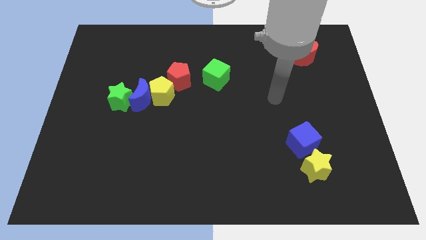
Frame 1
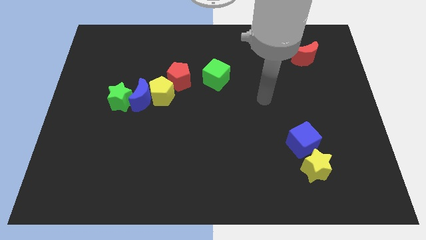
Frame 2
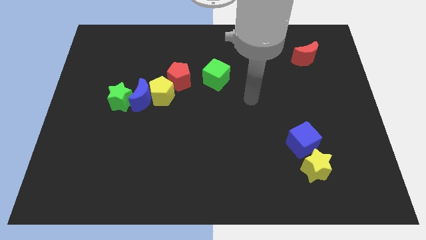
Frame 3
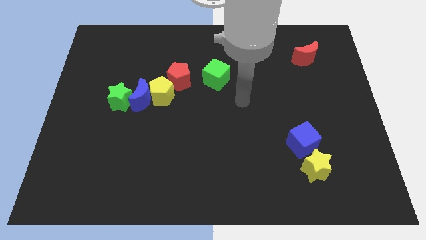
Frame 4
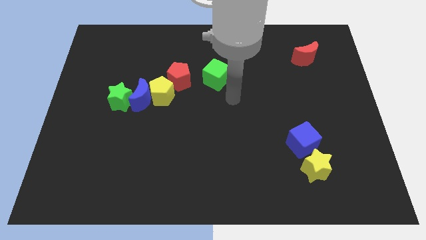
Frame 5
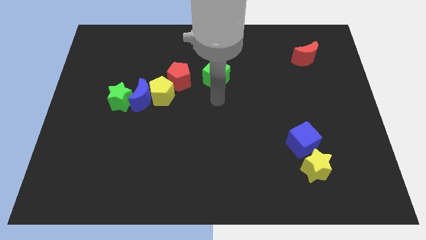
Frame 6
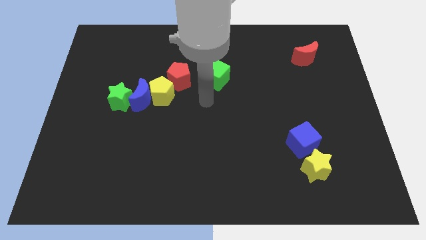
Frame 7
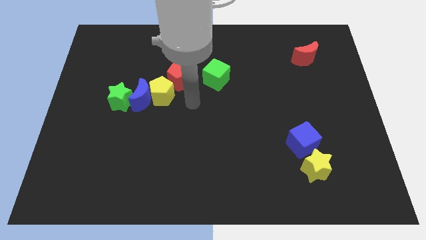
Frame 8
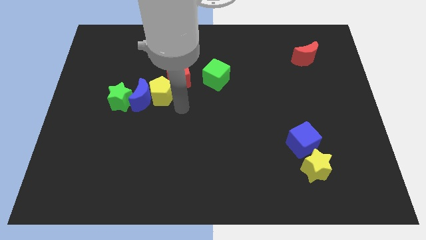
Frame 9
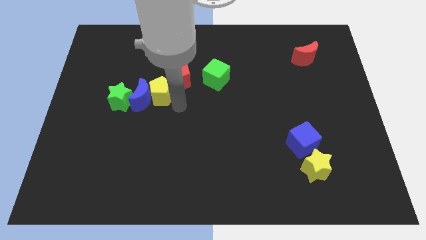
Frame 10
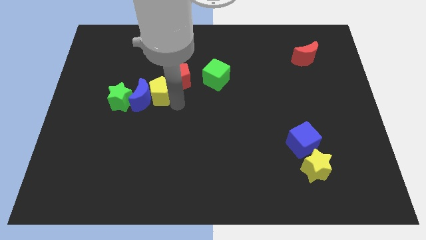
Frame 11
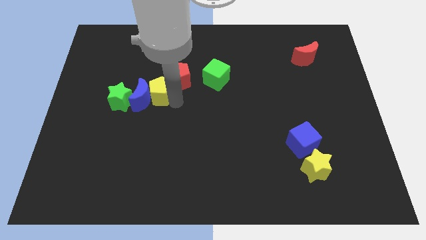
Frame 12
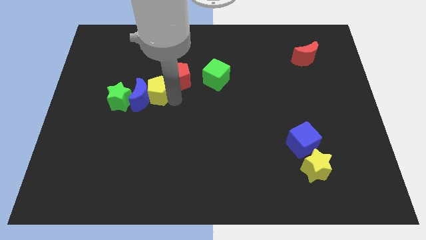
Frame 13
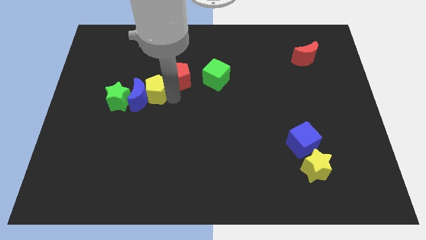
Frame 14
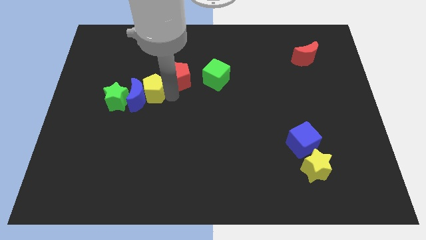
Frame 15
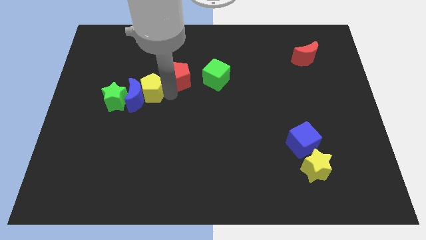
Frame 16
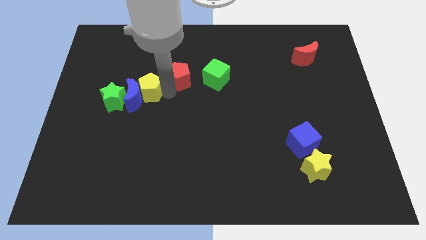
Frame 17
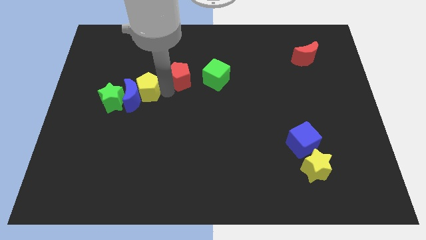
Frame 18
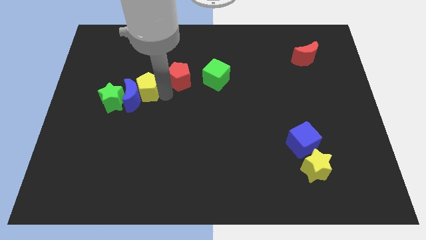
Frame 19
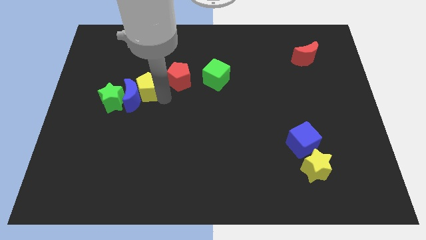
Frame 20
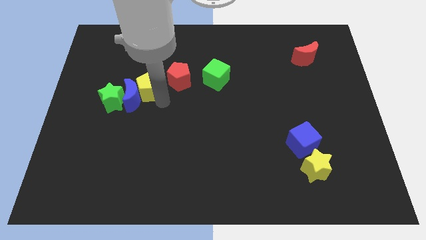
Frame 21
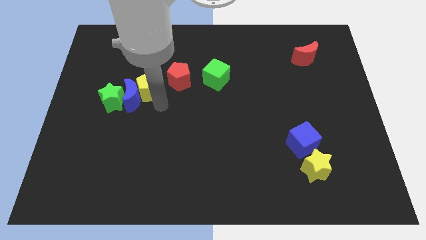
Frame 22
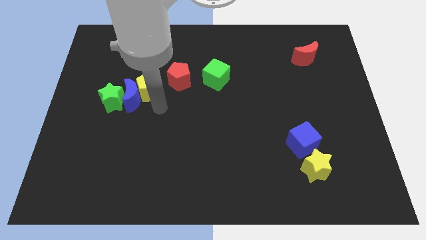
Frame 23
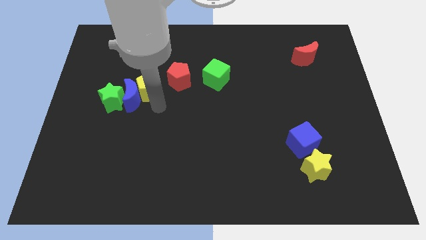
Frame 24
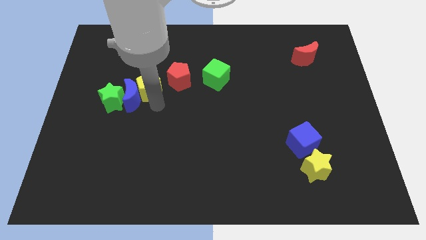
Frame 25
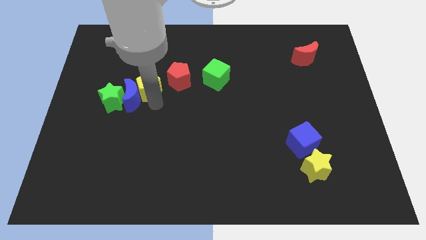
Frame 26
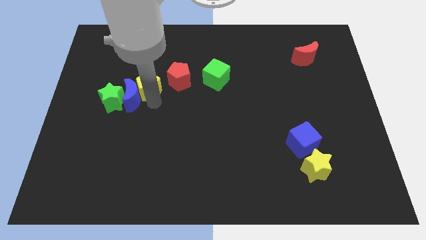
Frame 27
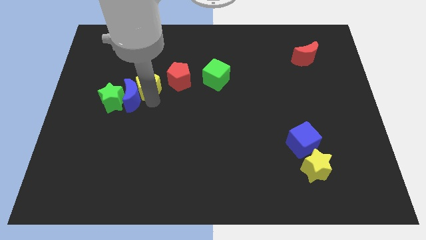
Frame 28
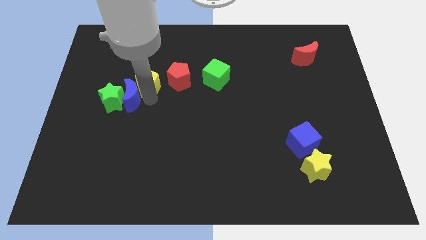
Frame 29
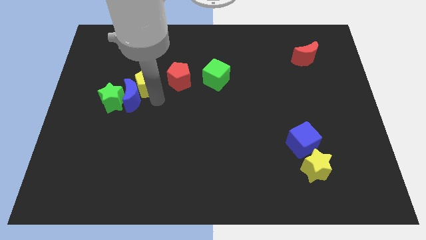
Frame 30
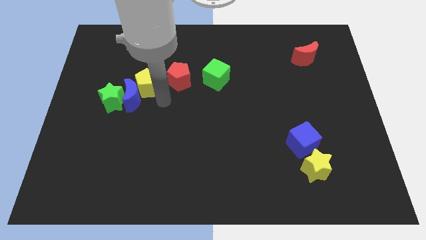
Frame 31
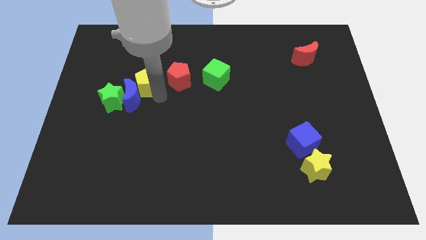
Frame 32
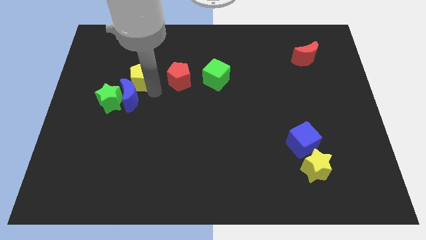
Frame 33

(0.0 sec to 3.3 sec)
slightly move the yellow pentagon upwards and then to the left

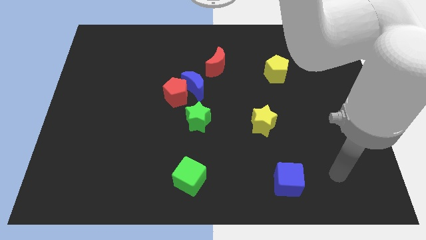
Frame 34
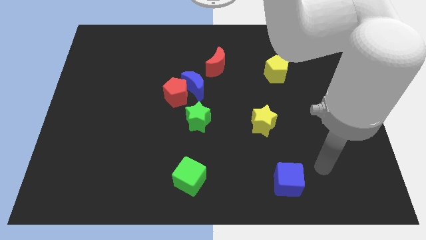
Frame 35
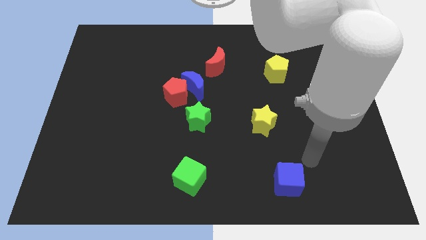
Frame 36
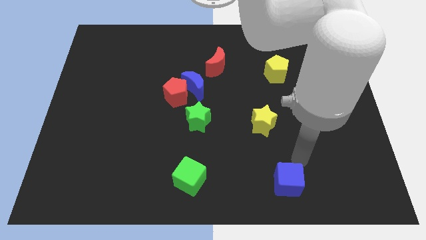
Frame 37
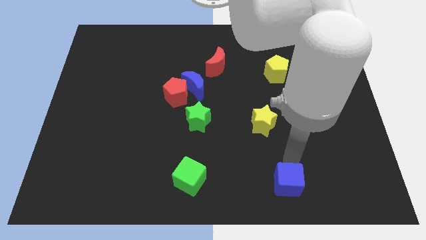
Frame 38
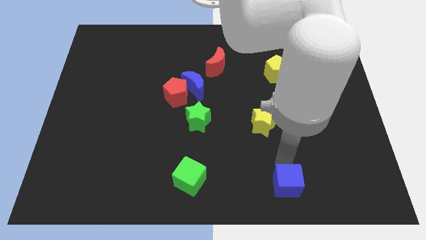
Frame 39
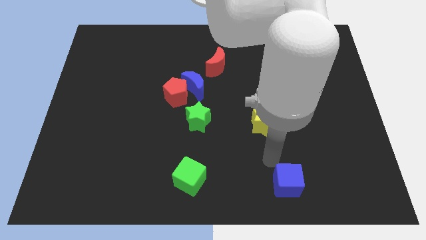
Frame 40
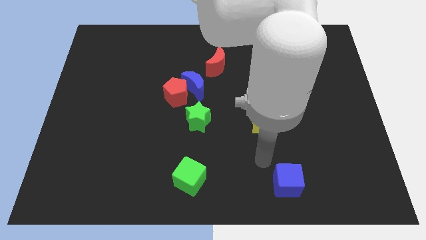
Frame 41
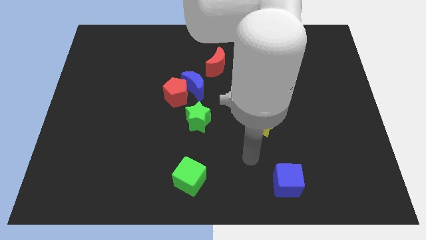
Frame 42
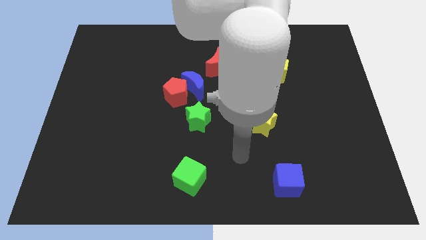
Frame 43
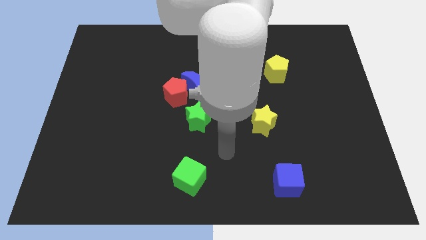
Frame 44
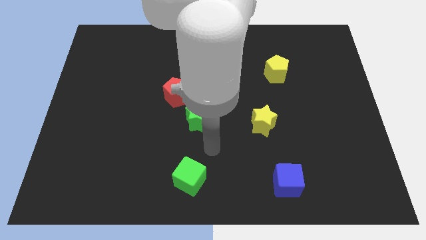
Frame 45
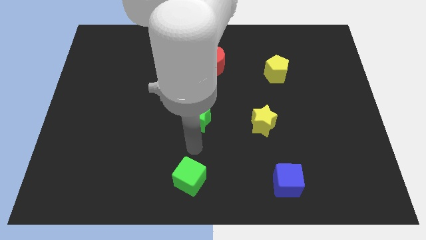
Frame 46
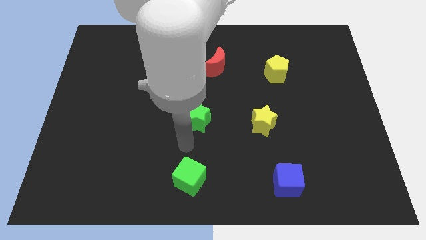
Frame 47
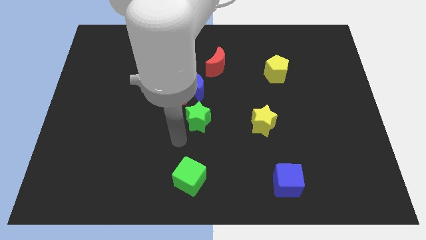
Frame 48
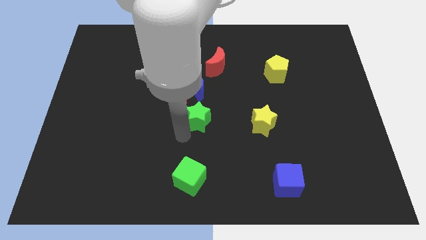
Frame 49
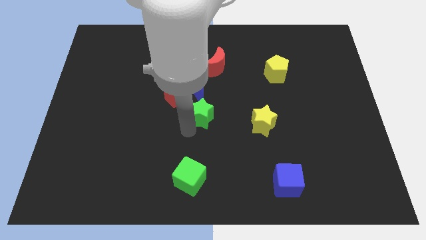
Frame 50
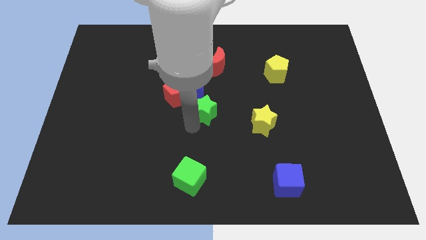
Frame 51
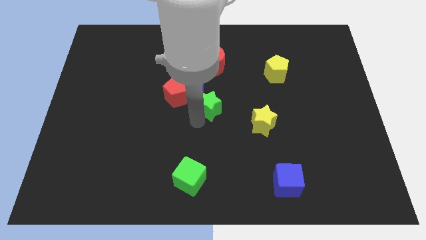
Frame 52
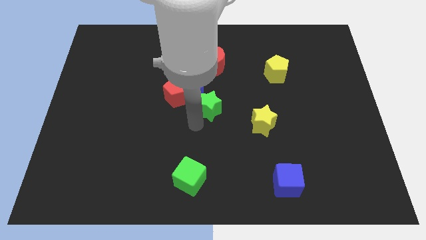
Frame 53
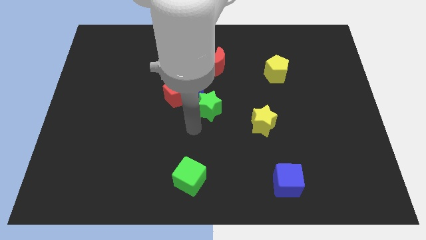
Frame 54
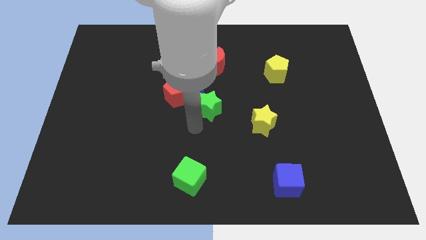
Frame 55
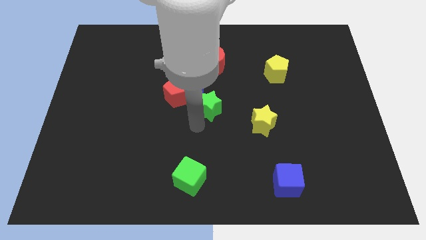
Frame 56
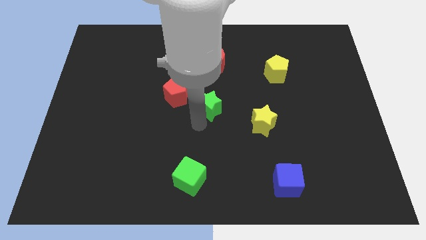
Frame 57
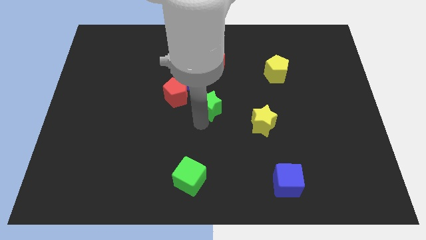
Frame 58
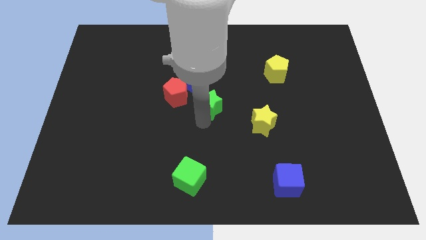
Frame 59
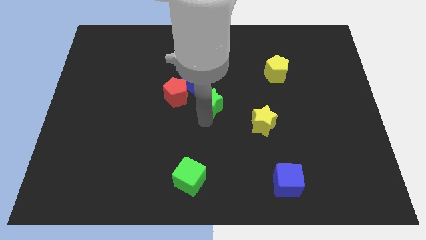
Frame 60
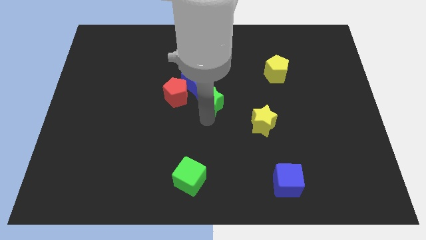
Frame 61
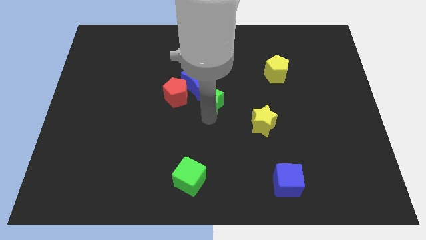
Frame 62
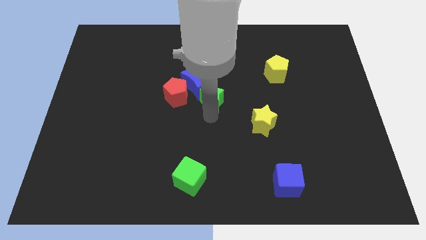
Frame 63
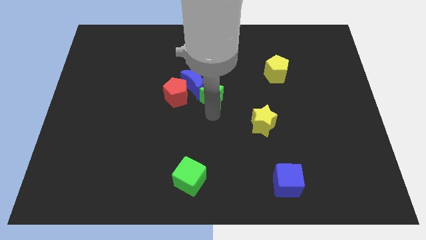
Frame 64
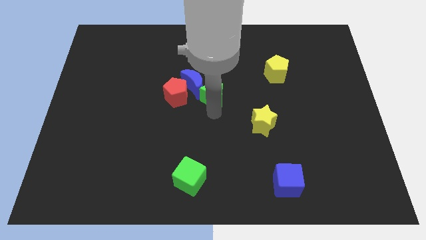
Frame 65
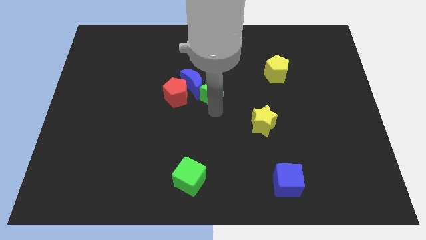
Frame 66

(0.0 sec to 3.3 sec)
move the green star upwards a little

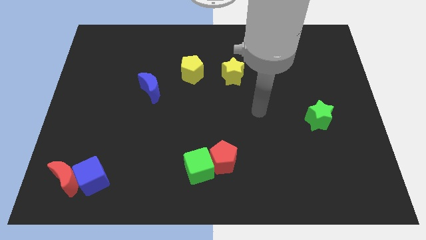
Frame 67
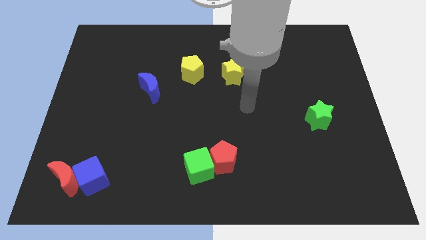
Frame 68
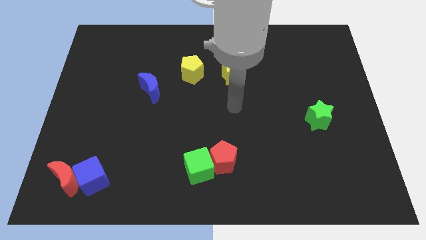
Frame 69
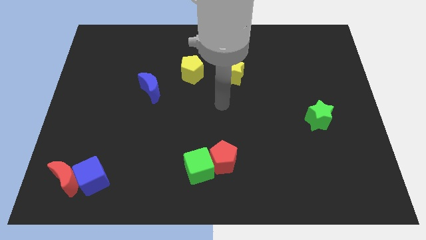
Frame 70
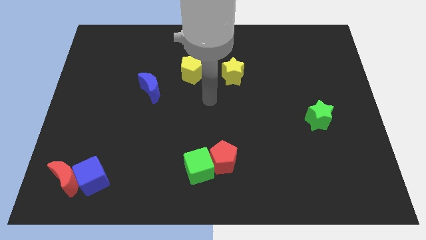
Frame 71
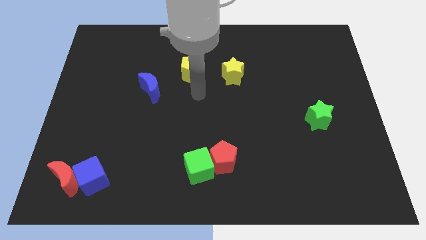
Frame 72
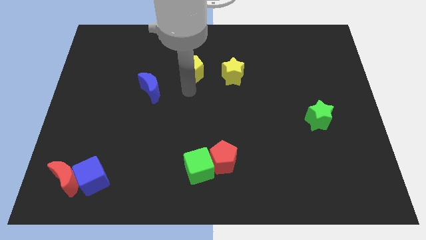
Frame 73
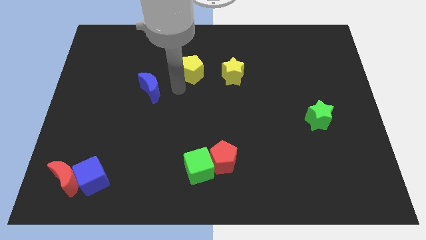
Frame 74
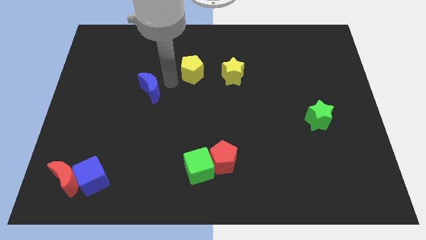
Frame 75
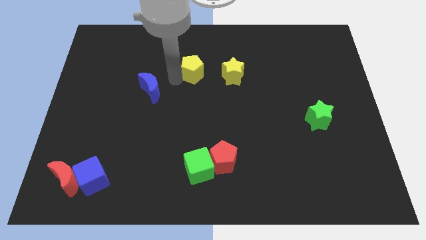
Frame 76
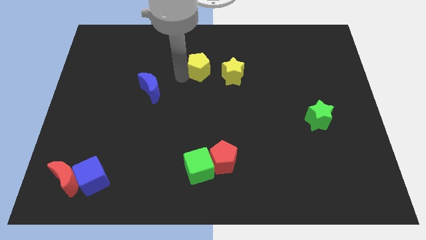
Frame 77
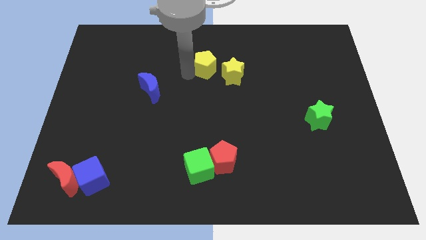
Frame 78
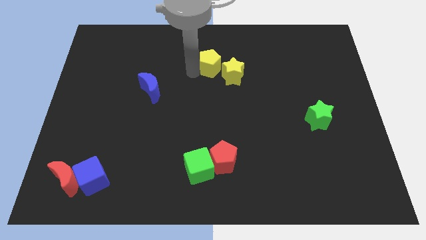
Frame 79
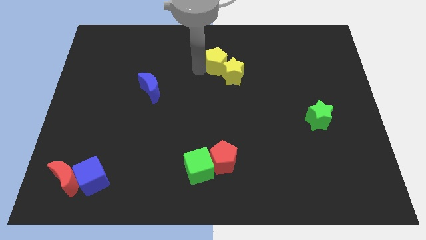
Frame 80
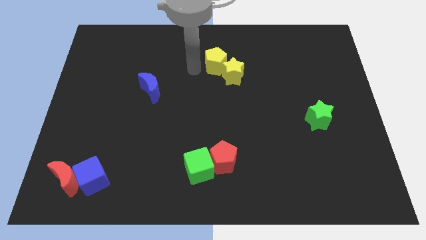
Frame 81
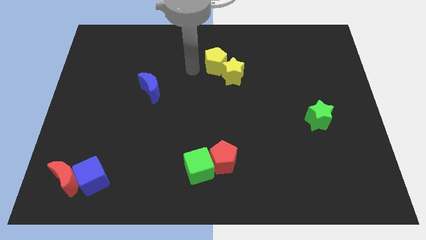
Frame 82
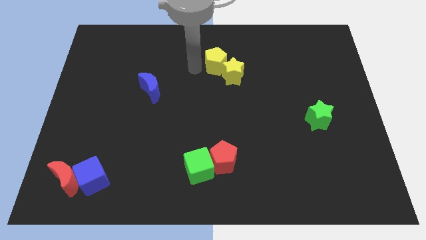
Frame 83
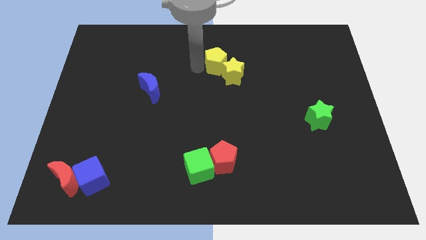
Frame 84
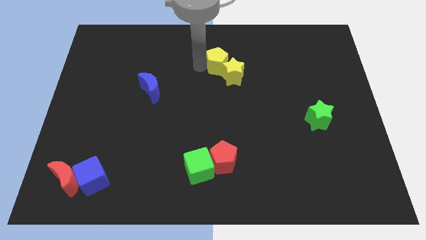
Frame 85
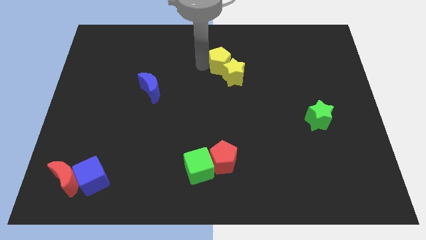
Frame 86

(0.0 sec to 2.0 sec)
move the yellow pentagon somewhat to the right
